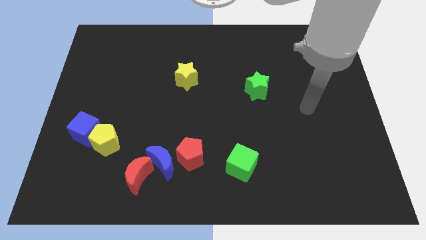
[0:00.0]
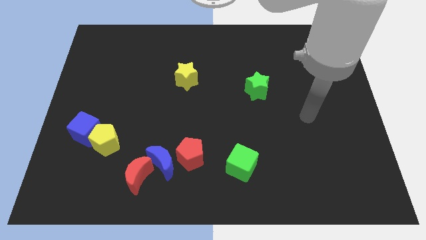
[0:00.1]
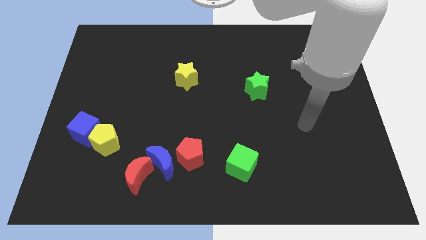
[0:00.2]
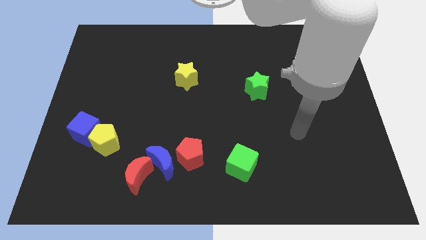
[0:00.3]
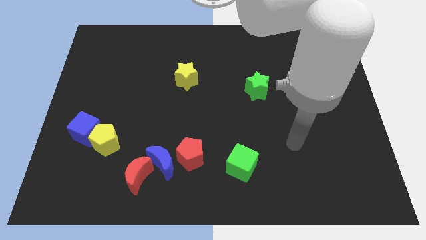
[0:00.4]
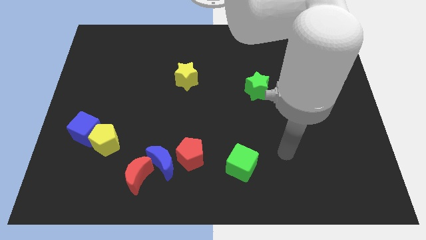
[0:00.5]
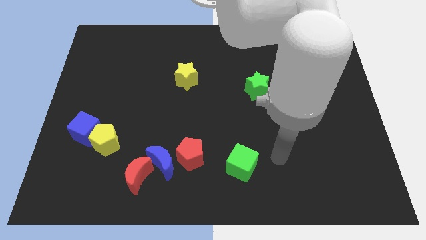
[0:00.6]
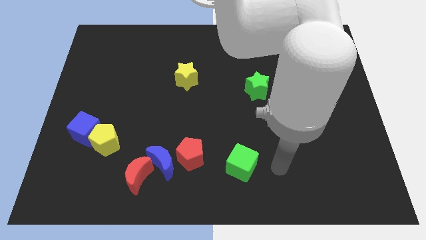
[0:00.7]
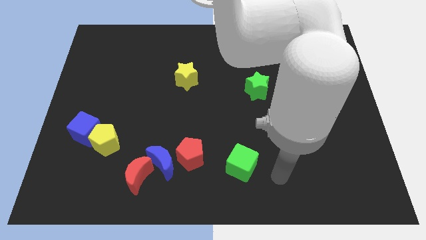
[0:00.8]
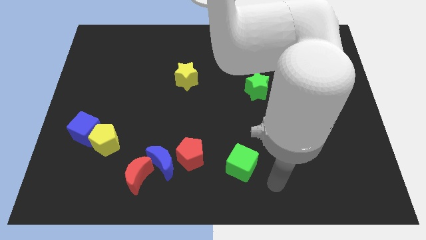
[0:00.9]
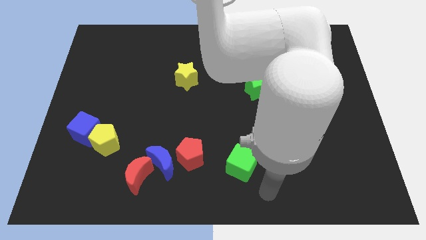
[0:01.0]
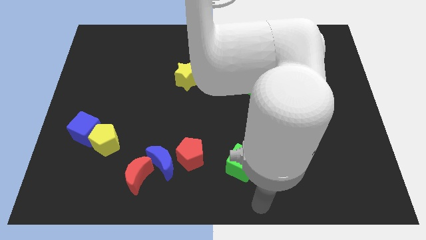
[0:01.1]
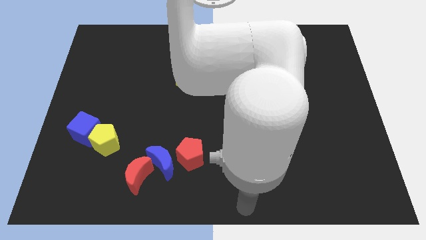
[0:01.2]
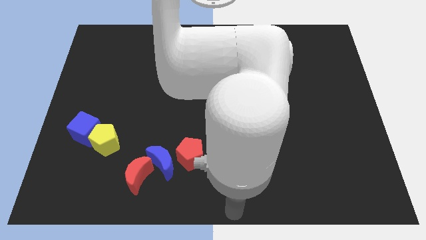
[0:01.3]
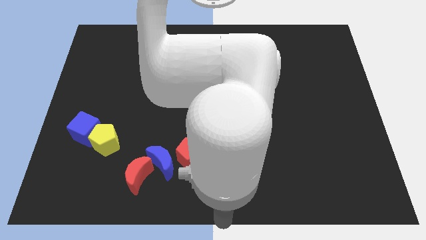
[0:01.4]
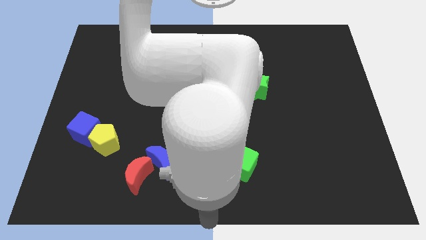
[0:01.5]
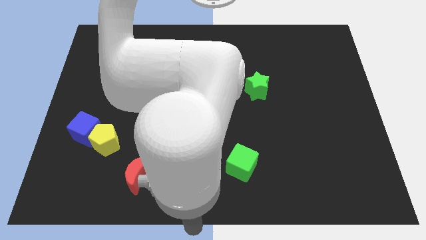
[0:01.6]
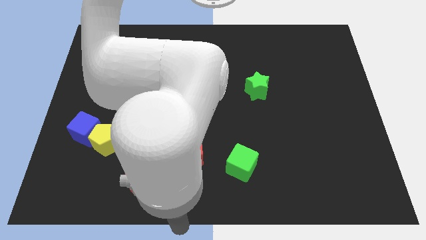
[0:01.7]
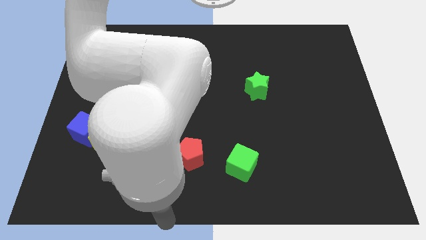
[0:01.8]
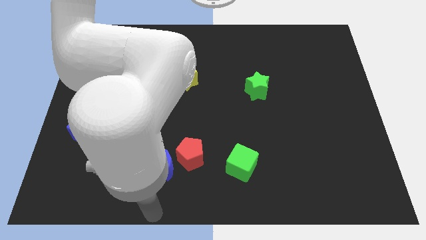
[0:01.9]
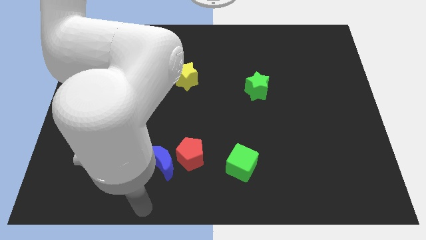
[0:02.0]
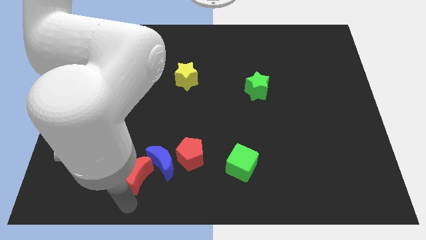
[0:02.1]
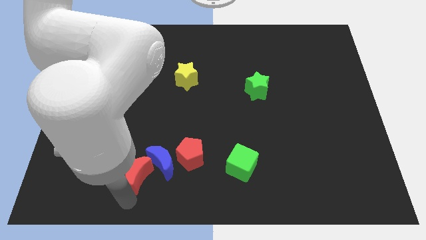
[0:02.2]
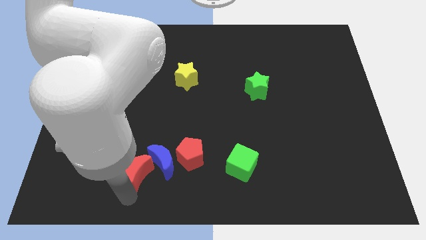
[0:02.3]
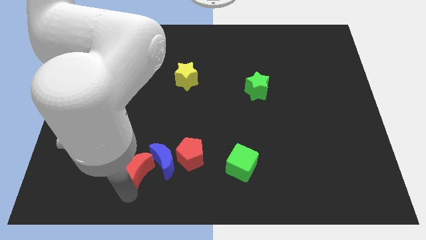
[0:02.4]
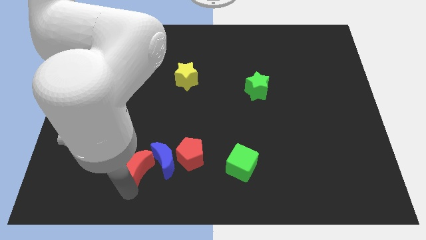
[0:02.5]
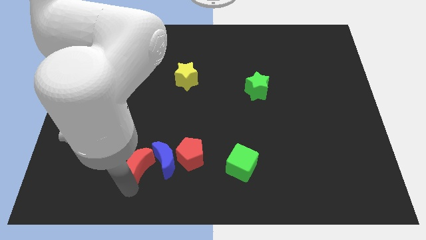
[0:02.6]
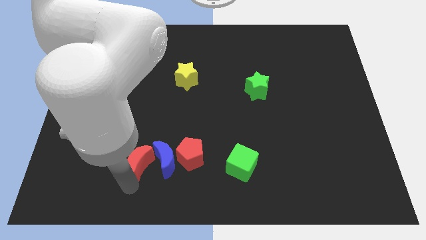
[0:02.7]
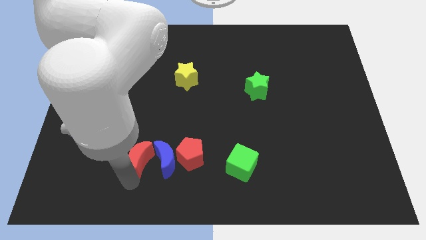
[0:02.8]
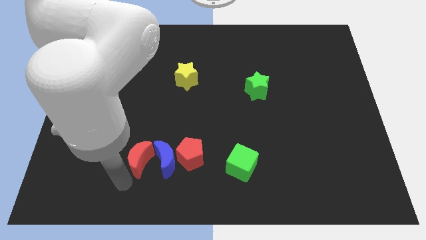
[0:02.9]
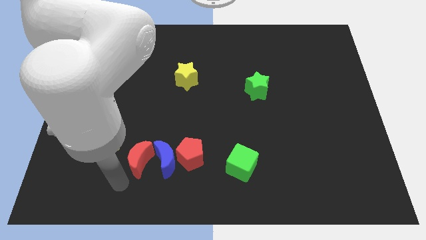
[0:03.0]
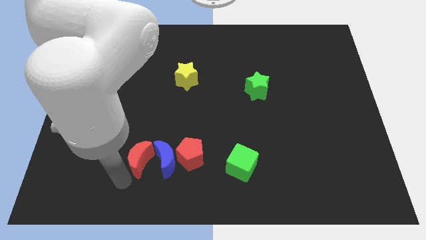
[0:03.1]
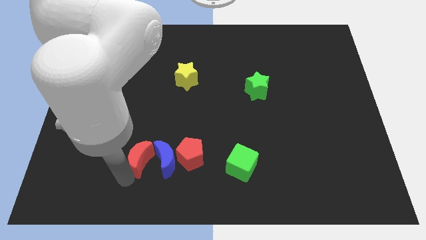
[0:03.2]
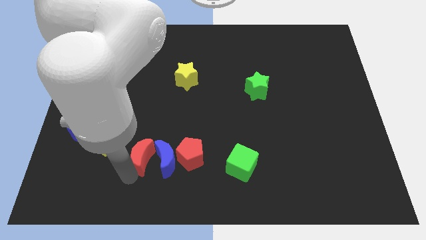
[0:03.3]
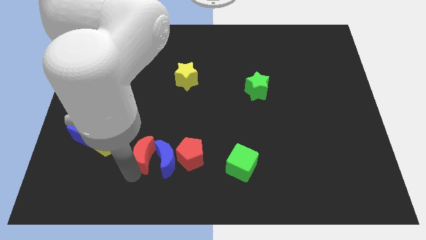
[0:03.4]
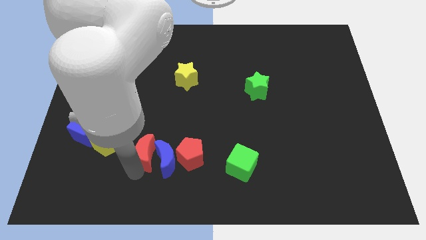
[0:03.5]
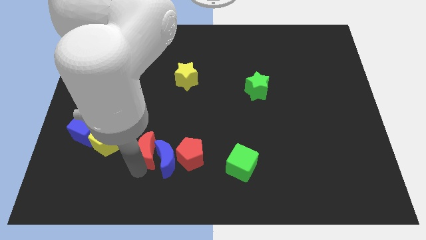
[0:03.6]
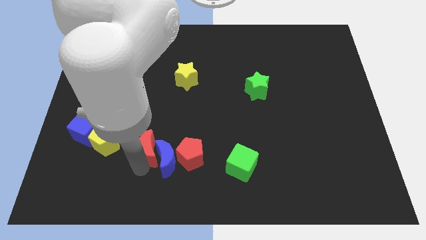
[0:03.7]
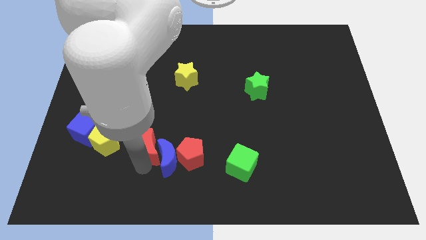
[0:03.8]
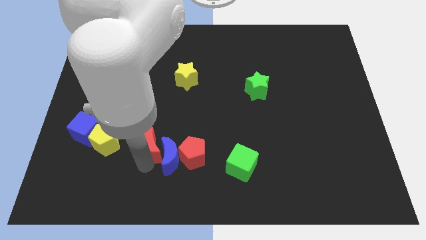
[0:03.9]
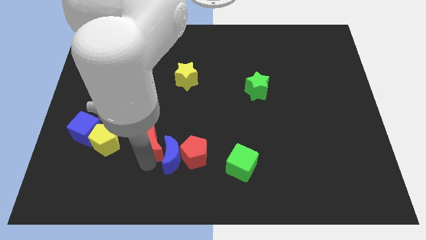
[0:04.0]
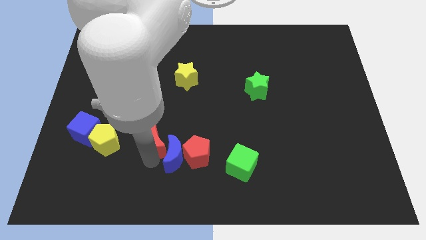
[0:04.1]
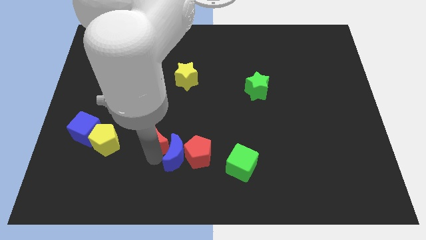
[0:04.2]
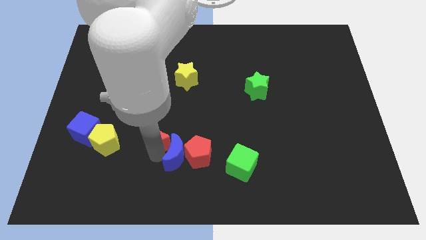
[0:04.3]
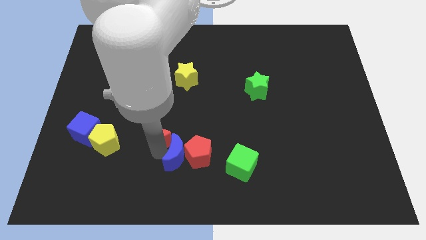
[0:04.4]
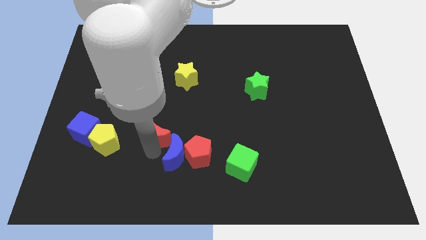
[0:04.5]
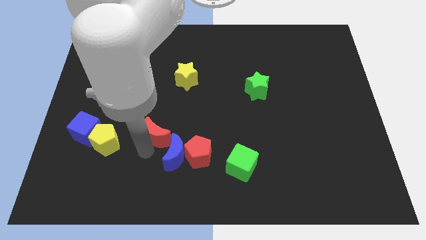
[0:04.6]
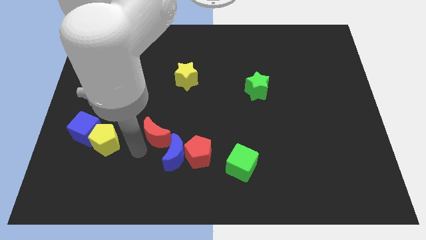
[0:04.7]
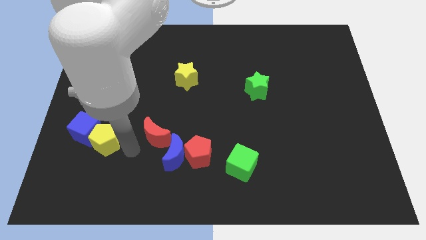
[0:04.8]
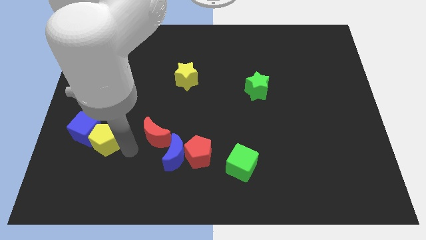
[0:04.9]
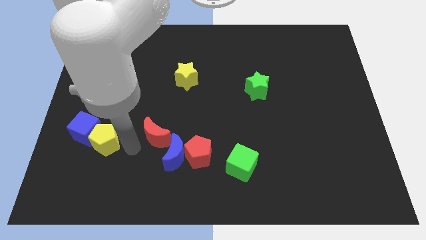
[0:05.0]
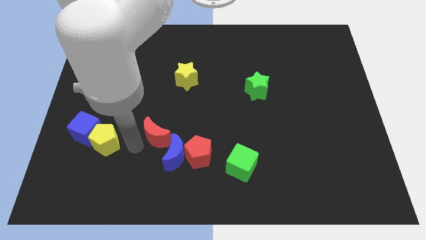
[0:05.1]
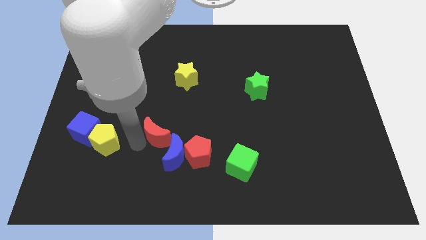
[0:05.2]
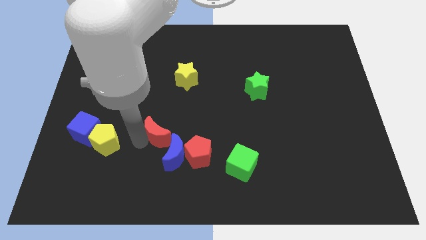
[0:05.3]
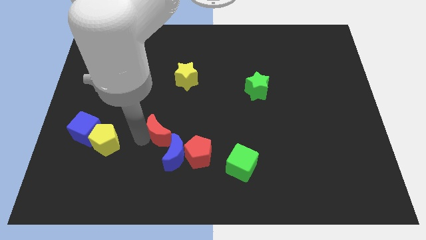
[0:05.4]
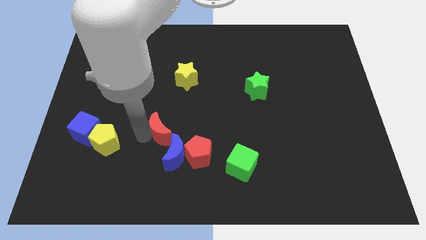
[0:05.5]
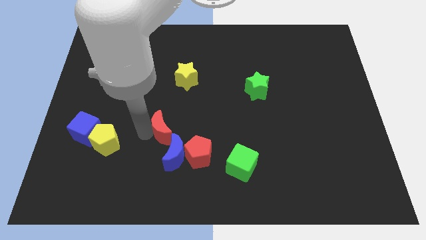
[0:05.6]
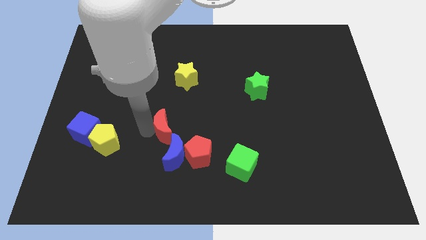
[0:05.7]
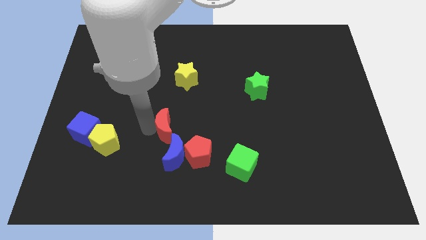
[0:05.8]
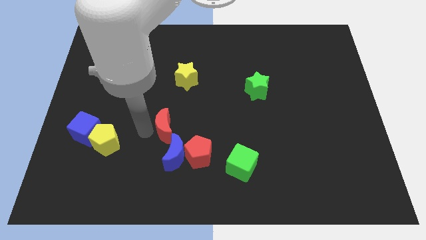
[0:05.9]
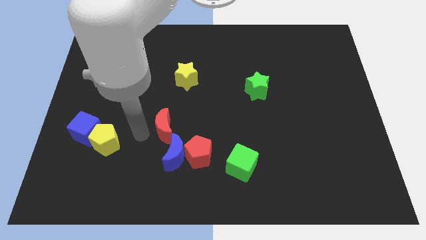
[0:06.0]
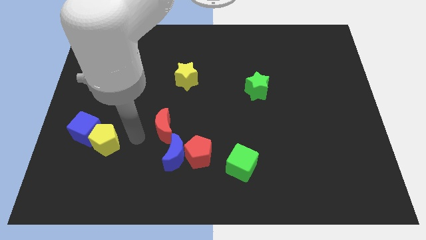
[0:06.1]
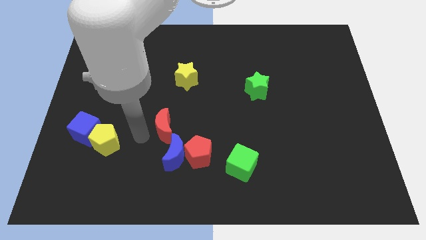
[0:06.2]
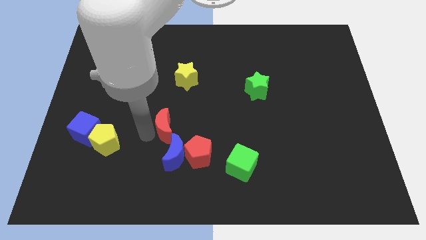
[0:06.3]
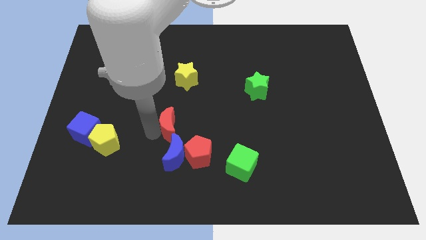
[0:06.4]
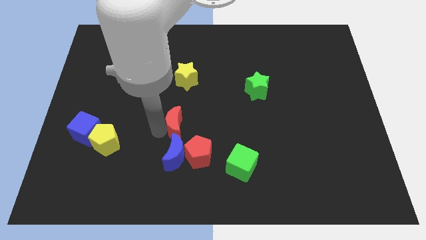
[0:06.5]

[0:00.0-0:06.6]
move the red moon to the center

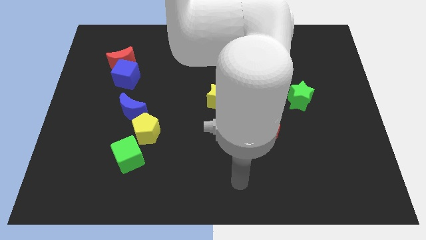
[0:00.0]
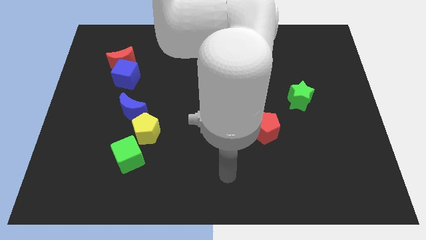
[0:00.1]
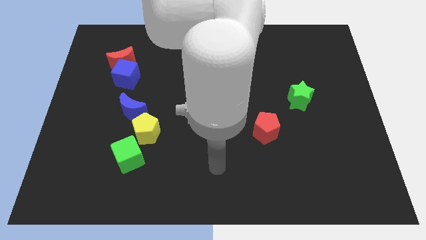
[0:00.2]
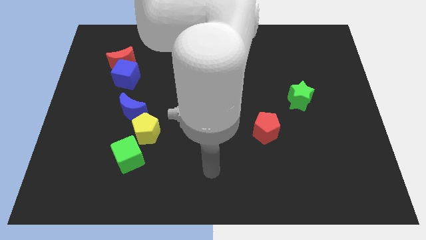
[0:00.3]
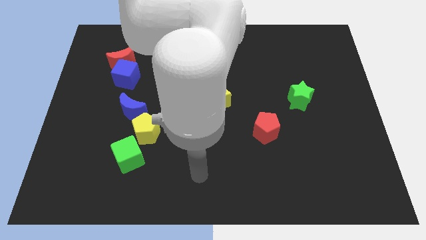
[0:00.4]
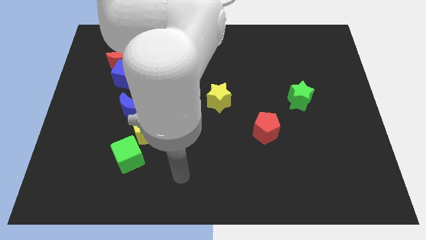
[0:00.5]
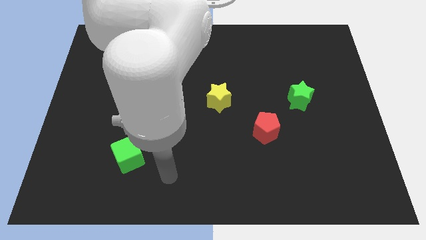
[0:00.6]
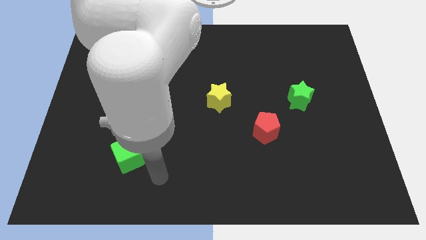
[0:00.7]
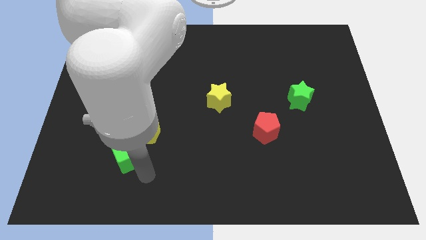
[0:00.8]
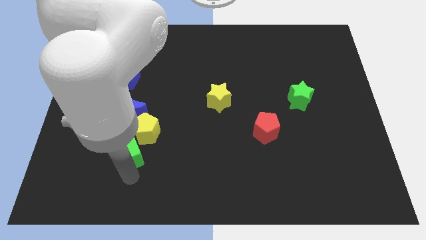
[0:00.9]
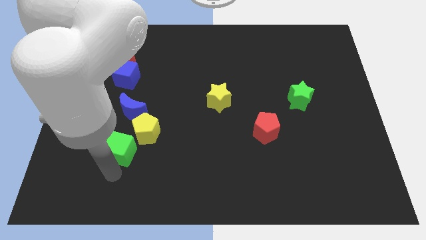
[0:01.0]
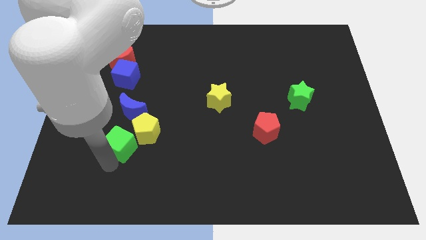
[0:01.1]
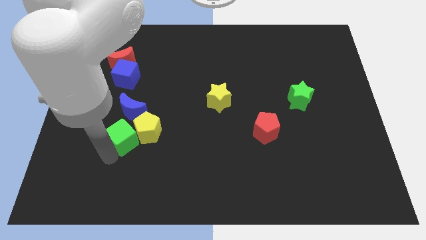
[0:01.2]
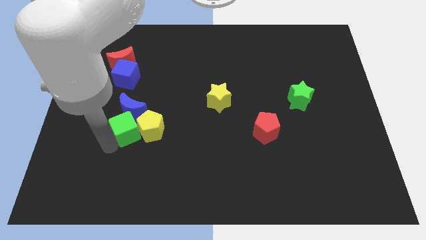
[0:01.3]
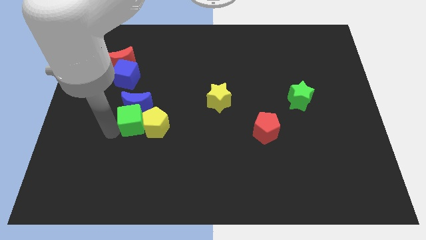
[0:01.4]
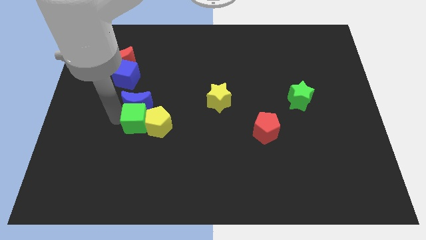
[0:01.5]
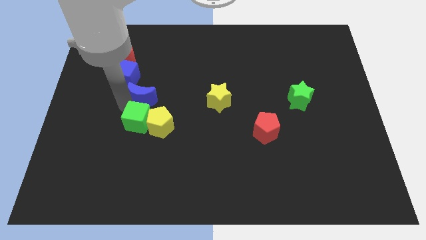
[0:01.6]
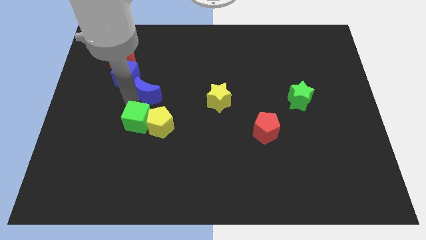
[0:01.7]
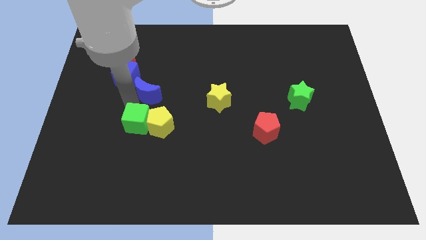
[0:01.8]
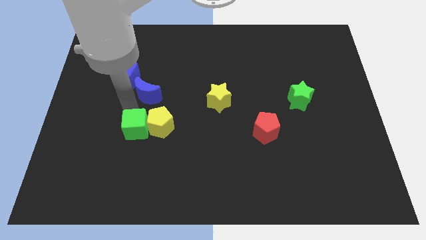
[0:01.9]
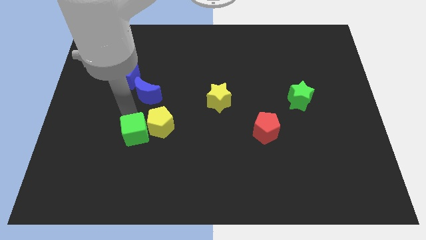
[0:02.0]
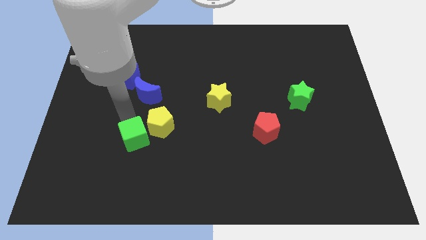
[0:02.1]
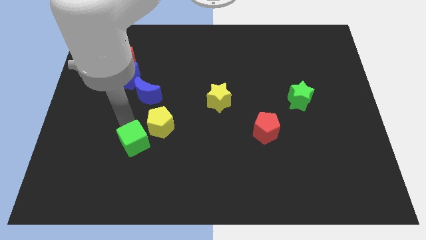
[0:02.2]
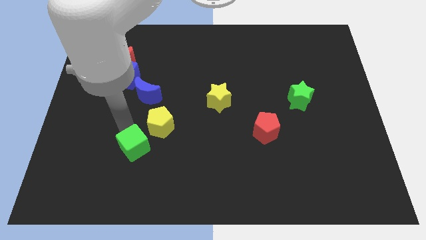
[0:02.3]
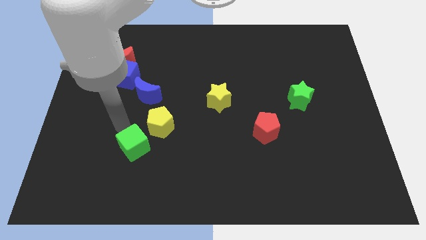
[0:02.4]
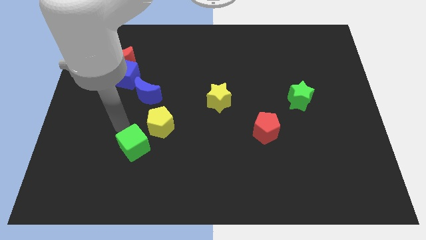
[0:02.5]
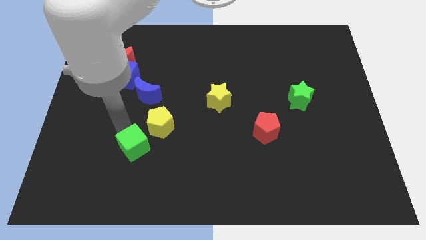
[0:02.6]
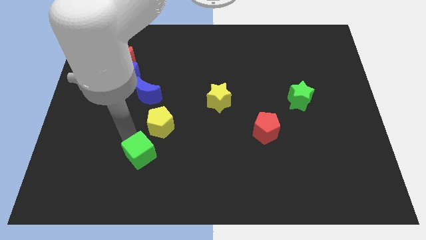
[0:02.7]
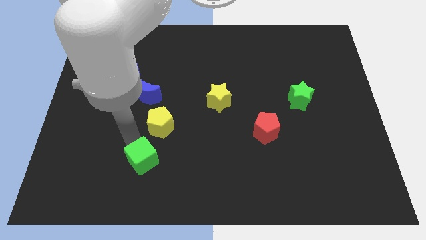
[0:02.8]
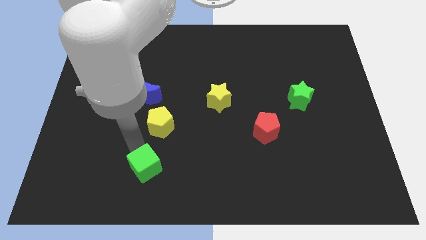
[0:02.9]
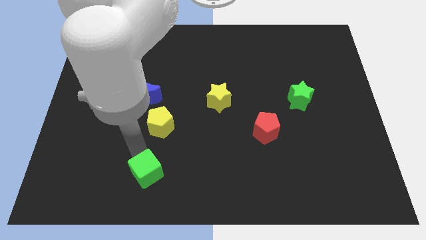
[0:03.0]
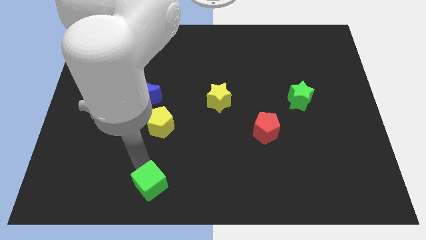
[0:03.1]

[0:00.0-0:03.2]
move the green cube to the bottom
